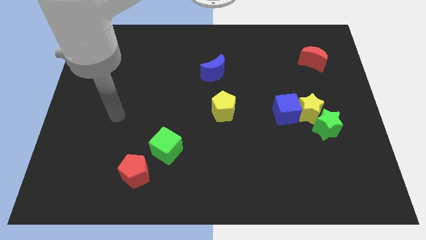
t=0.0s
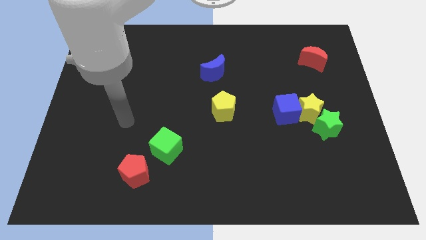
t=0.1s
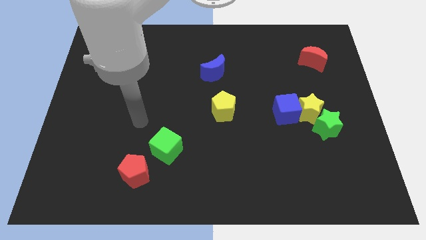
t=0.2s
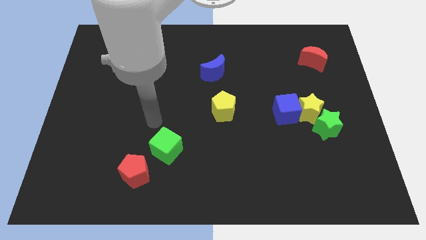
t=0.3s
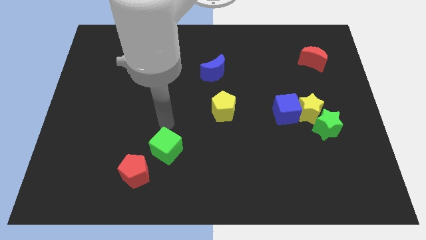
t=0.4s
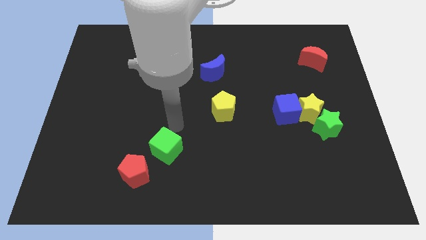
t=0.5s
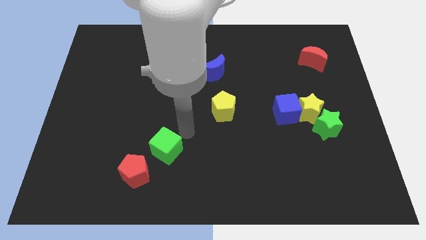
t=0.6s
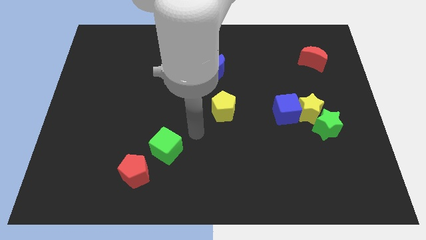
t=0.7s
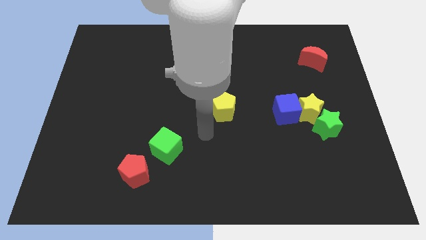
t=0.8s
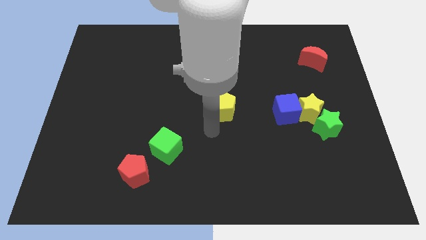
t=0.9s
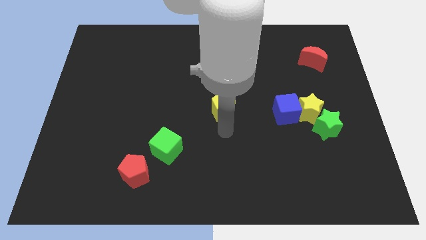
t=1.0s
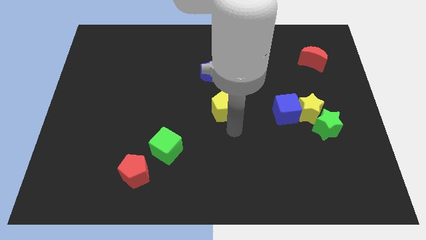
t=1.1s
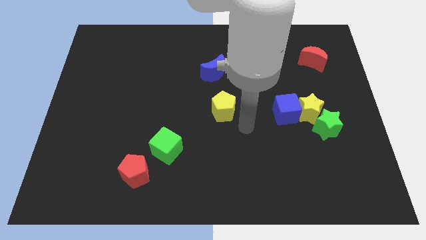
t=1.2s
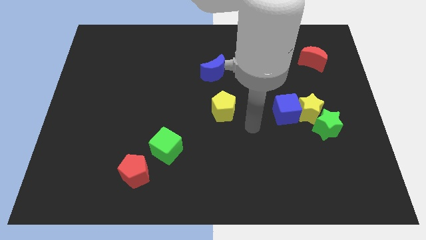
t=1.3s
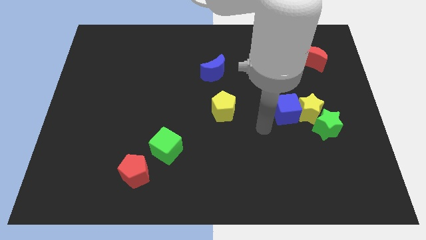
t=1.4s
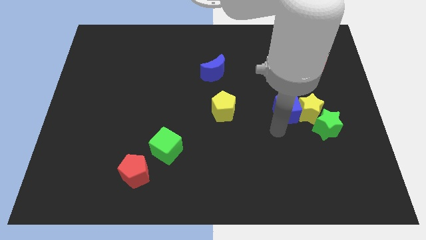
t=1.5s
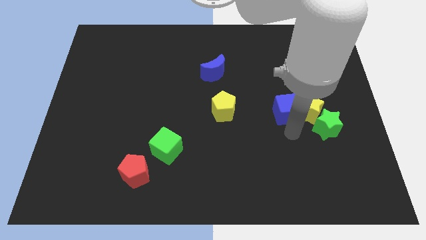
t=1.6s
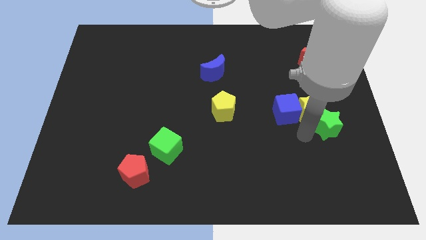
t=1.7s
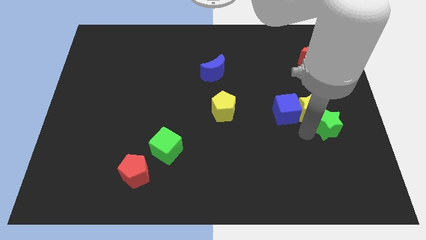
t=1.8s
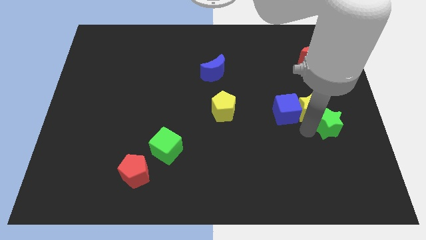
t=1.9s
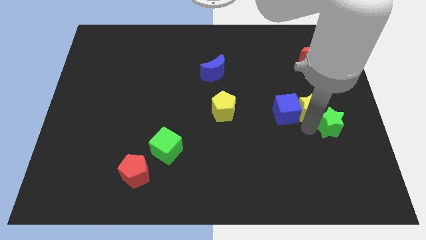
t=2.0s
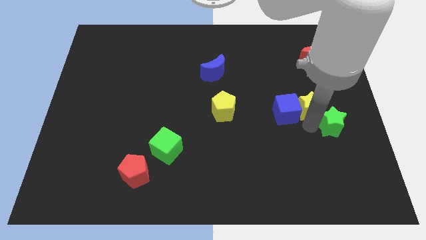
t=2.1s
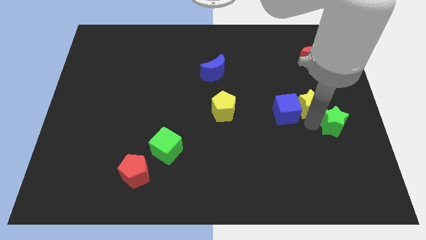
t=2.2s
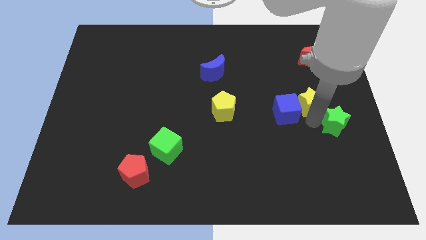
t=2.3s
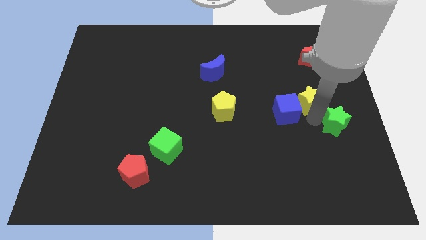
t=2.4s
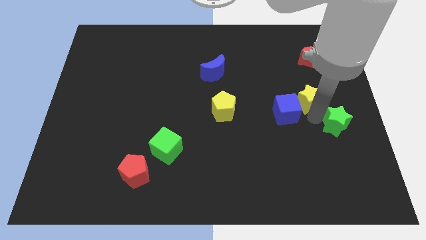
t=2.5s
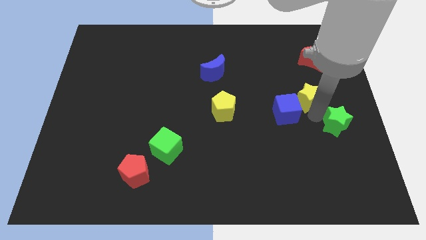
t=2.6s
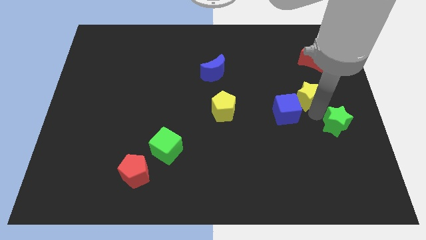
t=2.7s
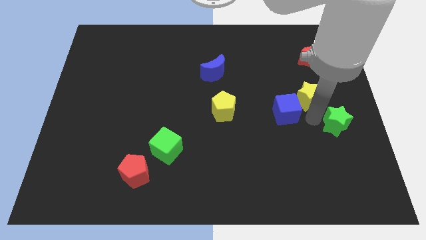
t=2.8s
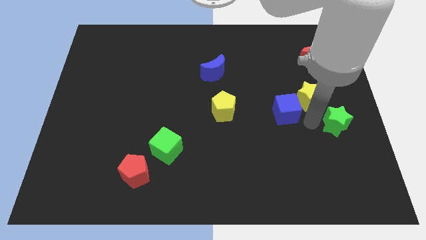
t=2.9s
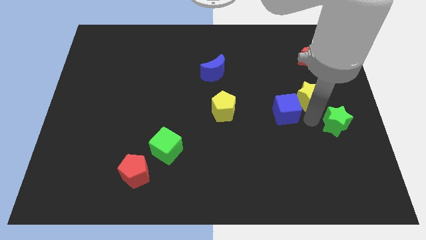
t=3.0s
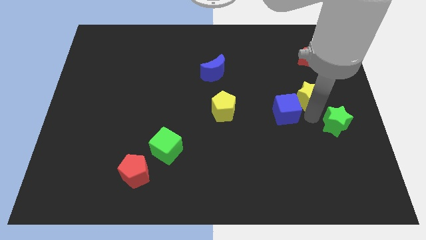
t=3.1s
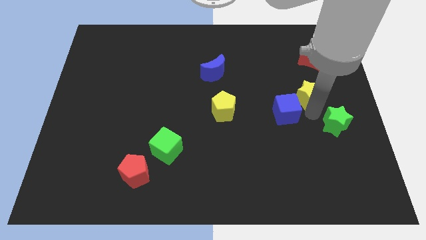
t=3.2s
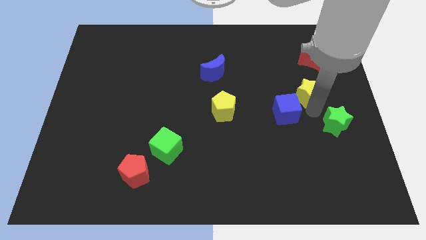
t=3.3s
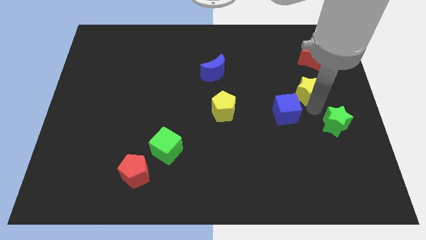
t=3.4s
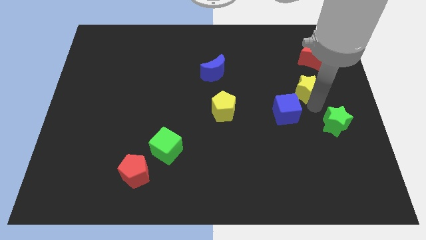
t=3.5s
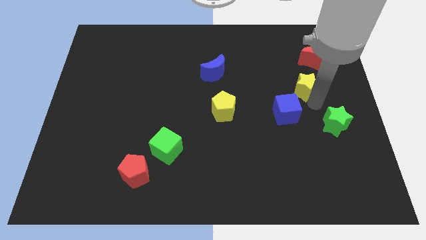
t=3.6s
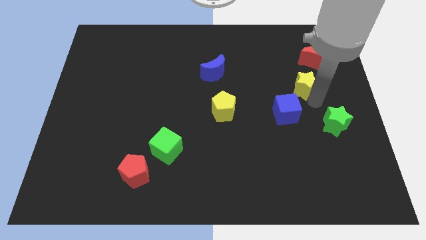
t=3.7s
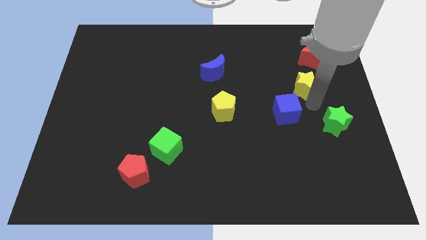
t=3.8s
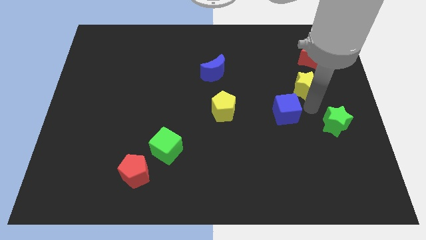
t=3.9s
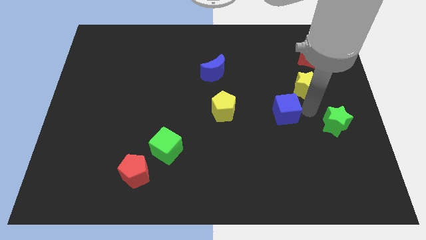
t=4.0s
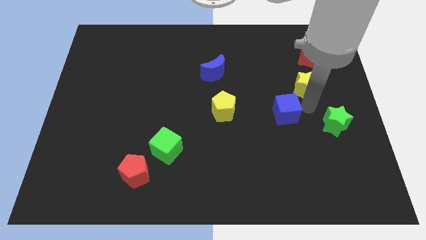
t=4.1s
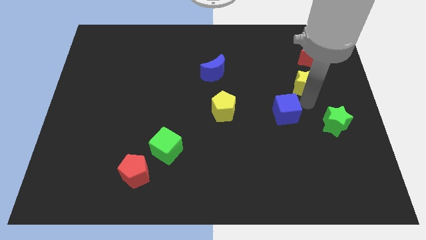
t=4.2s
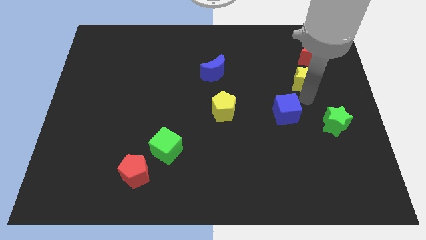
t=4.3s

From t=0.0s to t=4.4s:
pull the yellow star apart from the blue cube and green star

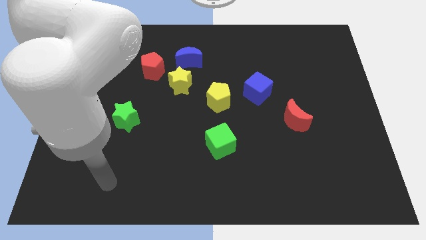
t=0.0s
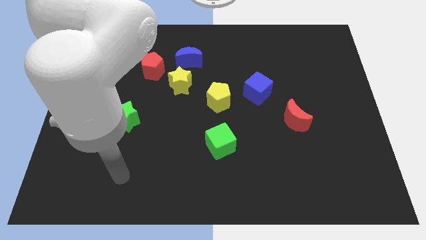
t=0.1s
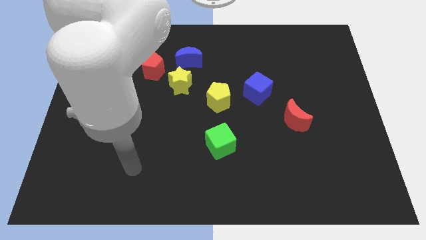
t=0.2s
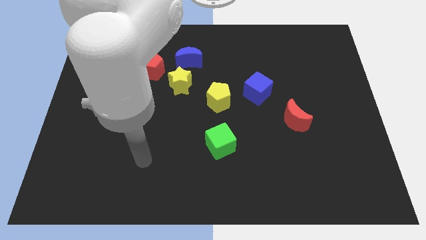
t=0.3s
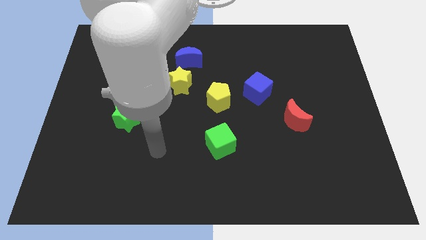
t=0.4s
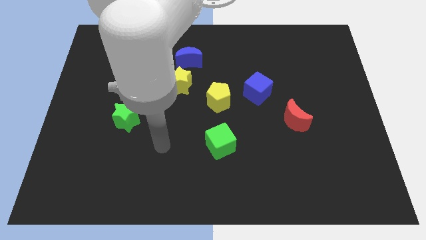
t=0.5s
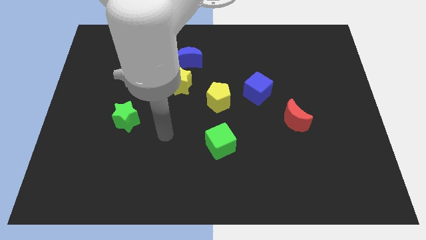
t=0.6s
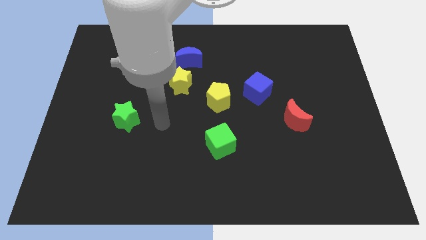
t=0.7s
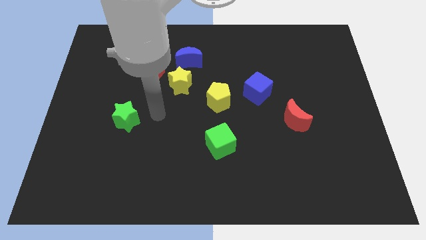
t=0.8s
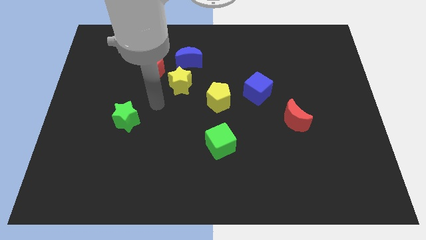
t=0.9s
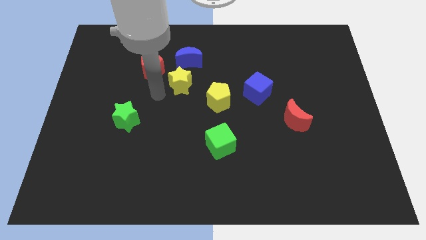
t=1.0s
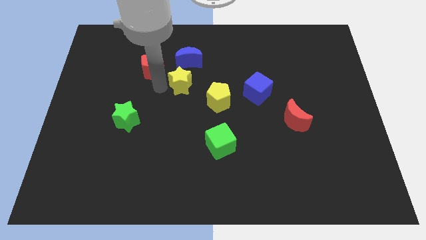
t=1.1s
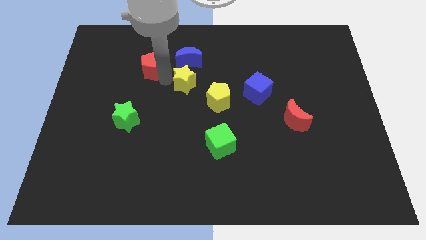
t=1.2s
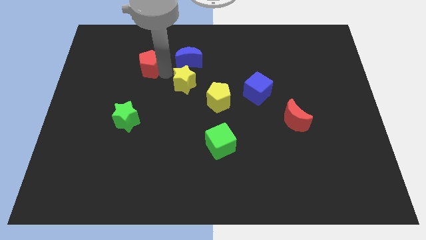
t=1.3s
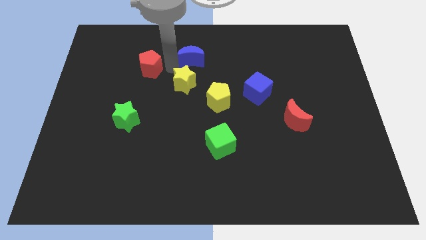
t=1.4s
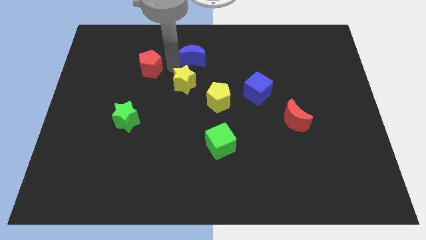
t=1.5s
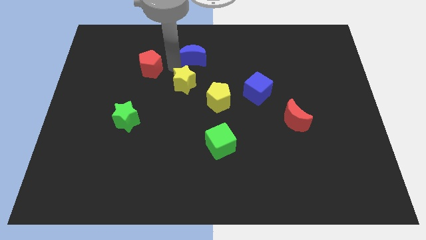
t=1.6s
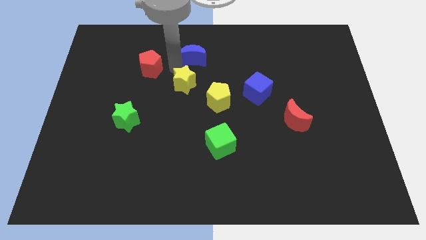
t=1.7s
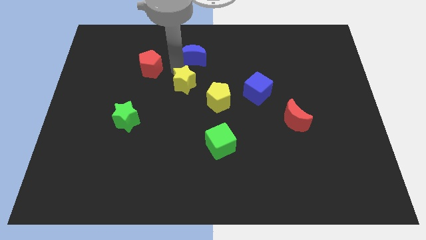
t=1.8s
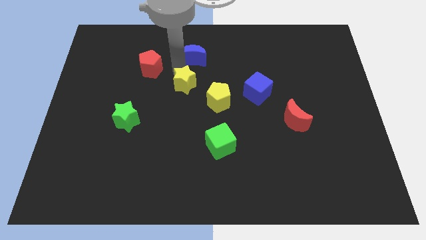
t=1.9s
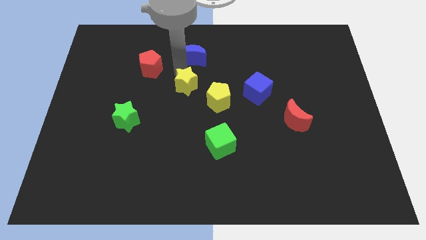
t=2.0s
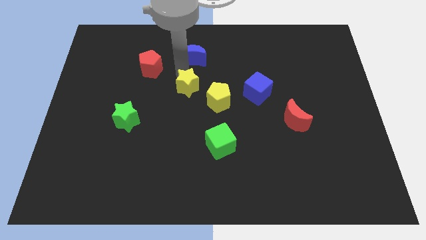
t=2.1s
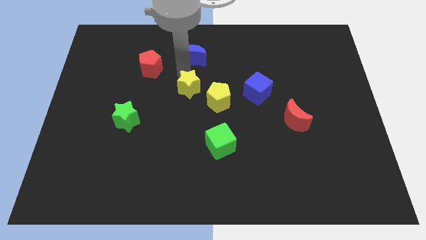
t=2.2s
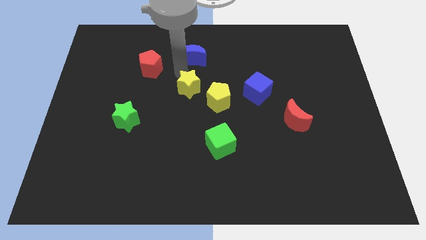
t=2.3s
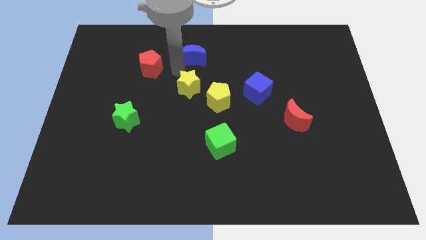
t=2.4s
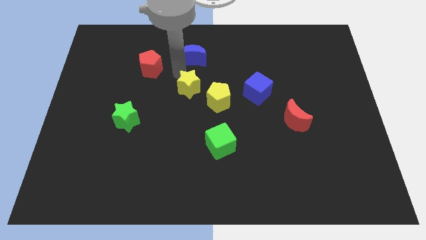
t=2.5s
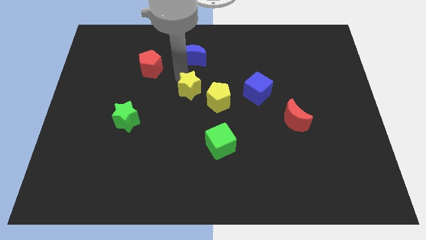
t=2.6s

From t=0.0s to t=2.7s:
pull the yellow star apart from the blue moon and red pentagon

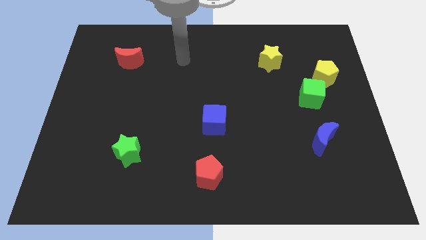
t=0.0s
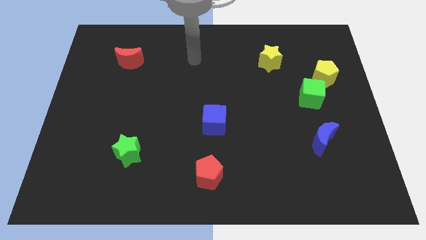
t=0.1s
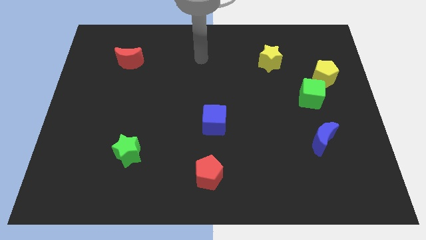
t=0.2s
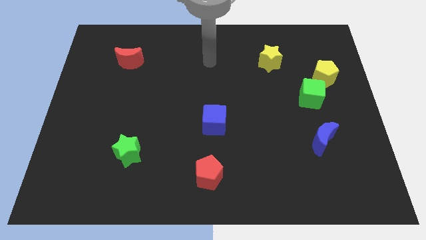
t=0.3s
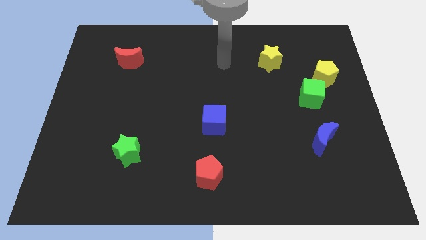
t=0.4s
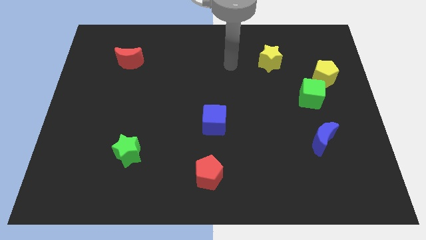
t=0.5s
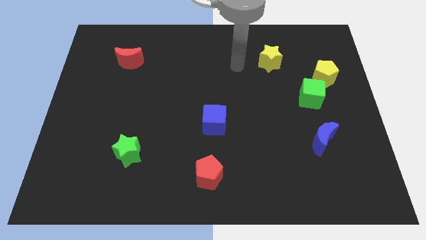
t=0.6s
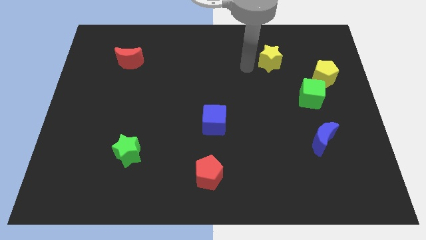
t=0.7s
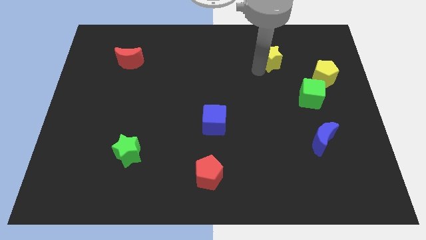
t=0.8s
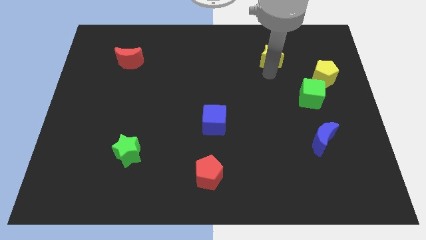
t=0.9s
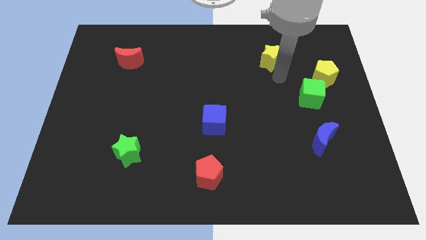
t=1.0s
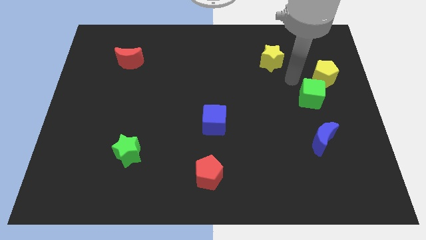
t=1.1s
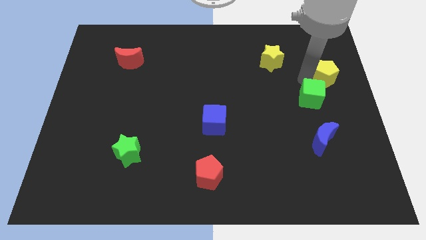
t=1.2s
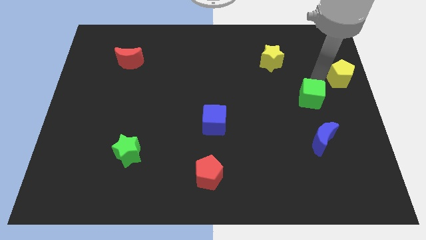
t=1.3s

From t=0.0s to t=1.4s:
pull the green cube apart from the yellow pentagon

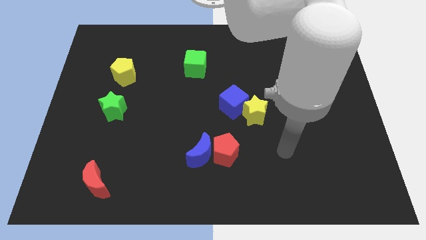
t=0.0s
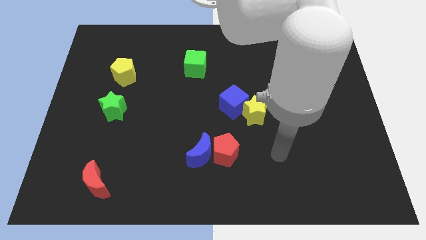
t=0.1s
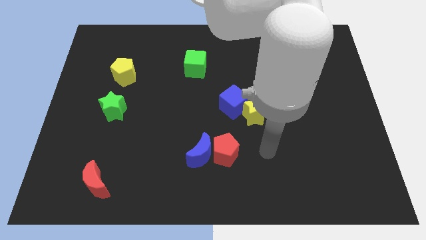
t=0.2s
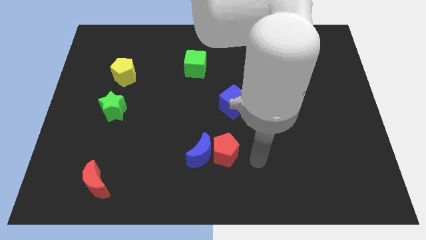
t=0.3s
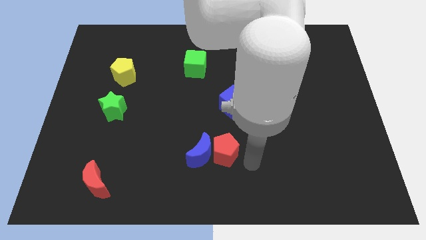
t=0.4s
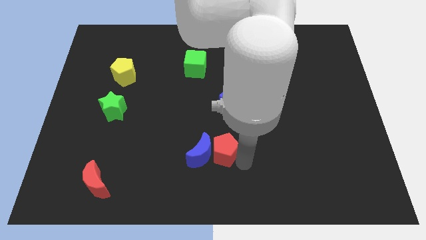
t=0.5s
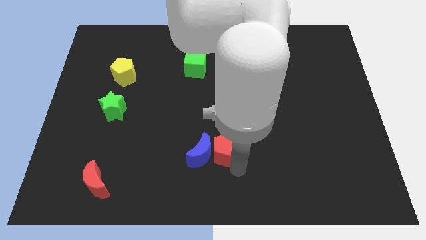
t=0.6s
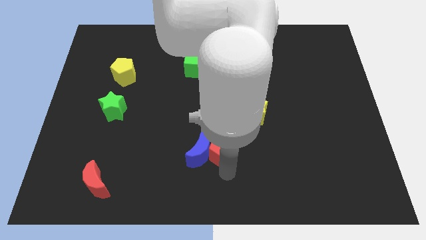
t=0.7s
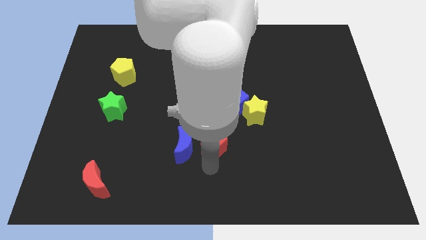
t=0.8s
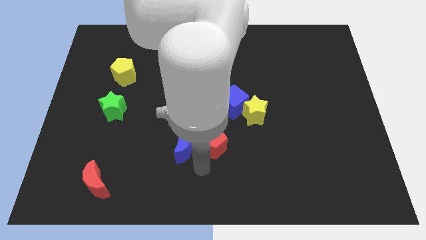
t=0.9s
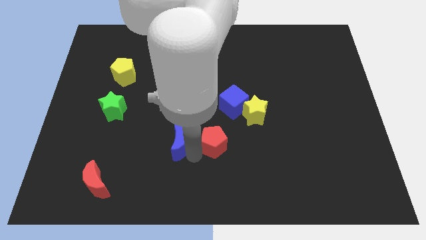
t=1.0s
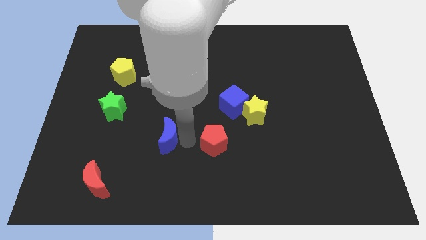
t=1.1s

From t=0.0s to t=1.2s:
separate the red pentagon from the blue moon
